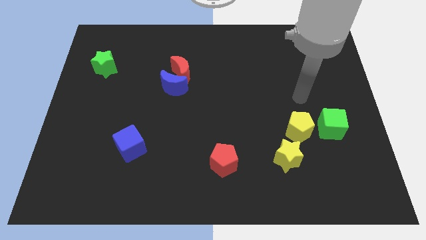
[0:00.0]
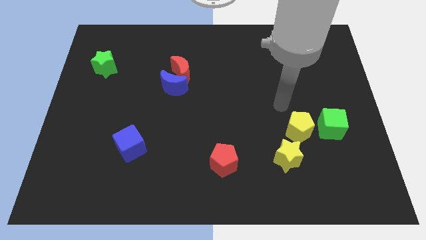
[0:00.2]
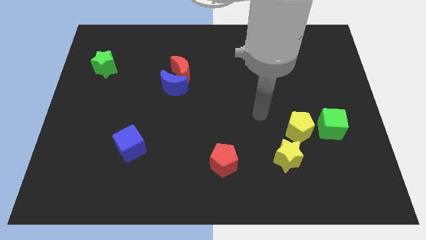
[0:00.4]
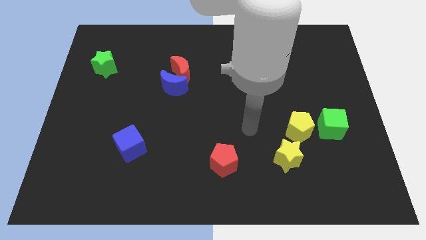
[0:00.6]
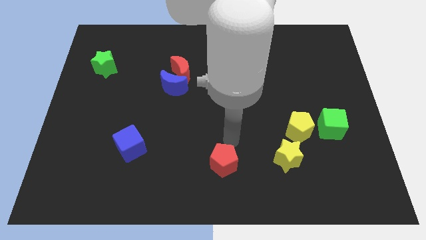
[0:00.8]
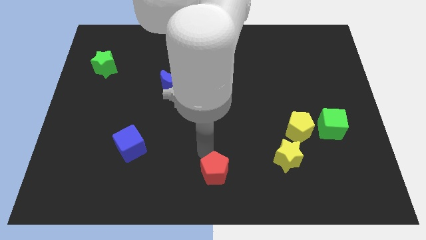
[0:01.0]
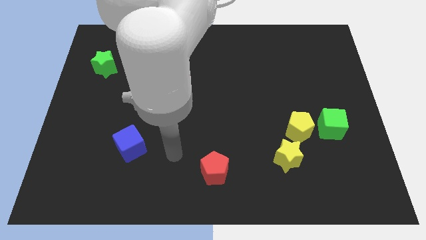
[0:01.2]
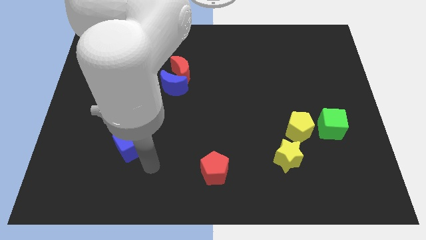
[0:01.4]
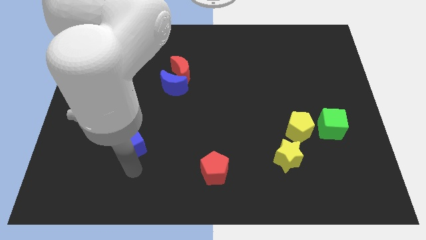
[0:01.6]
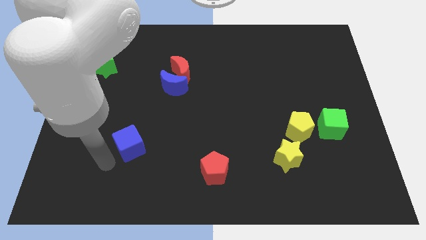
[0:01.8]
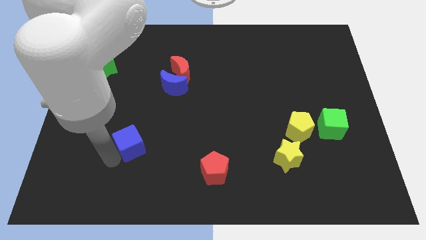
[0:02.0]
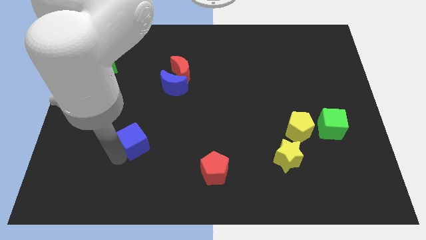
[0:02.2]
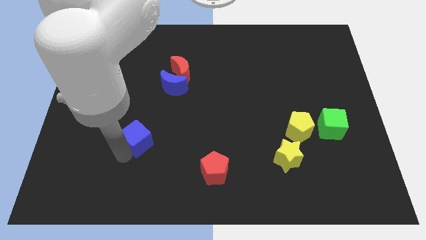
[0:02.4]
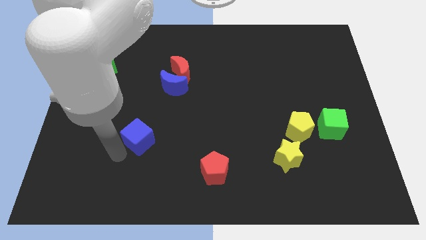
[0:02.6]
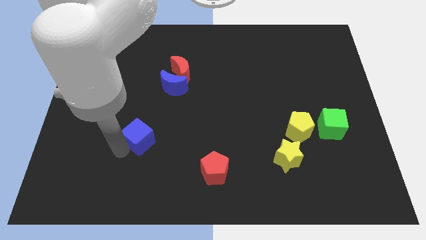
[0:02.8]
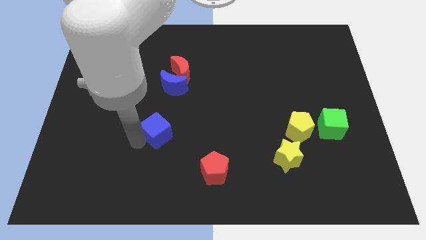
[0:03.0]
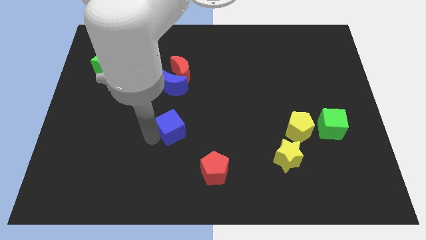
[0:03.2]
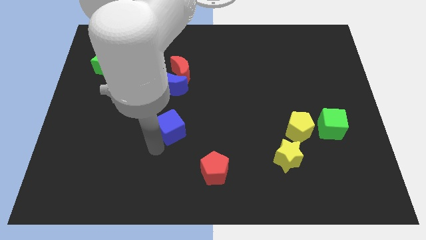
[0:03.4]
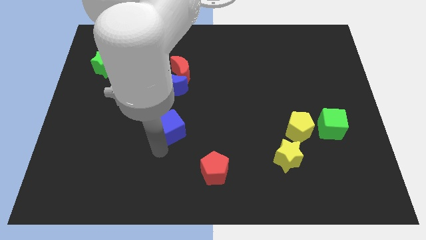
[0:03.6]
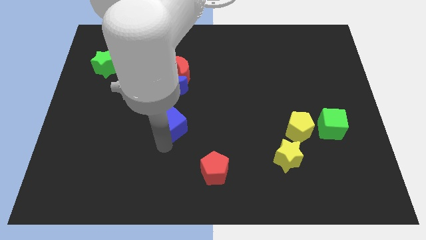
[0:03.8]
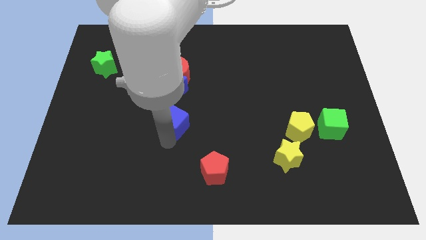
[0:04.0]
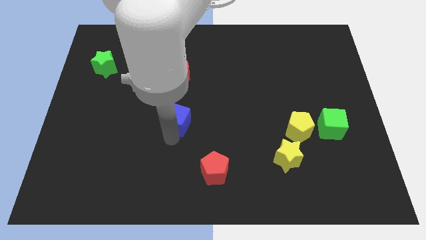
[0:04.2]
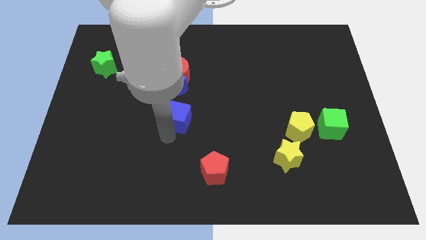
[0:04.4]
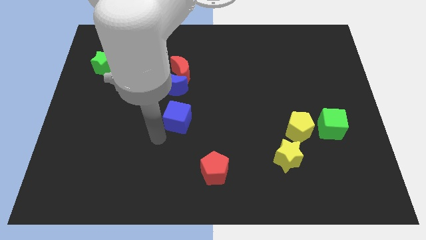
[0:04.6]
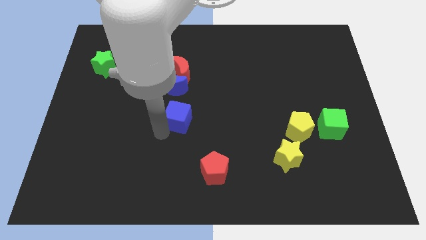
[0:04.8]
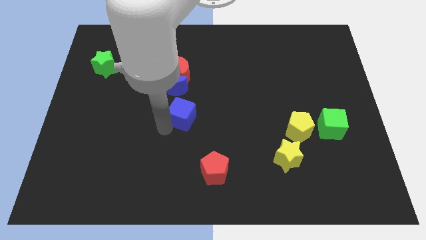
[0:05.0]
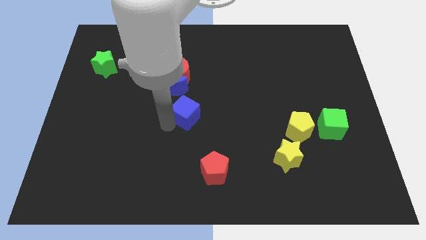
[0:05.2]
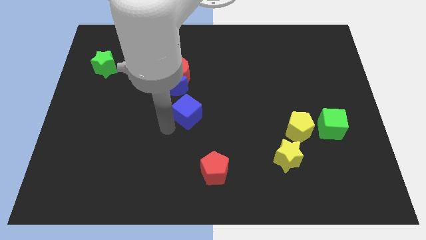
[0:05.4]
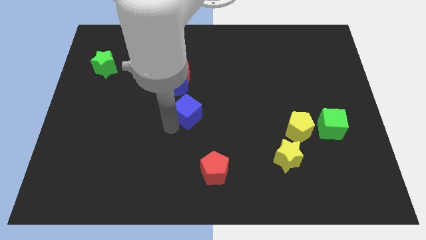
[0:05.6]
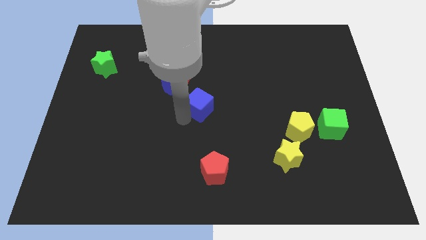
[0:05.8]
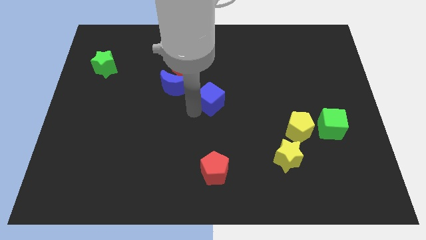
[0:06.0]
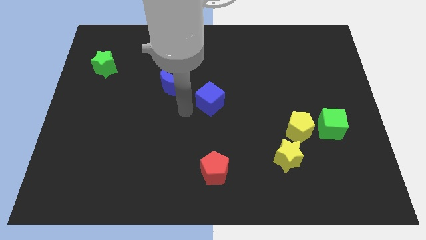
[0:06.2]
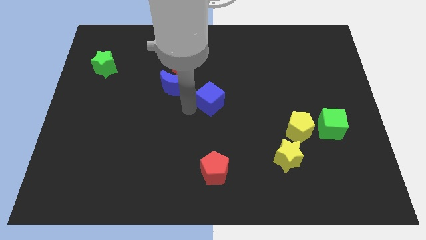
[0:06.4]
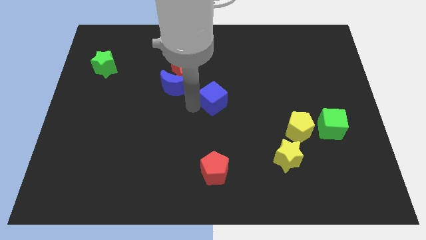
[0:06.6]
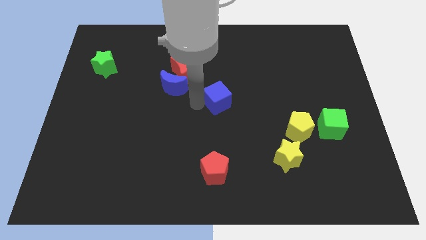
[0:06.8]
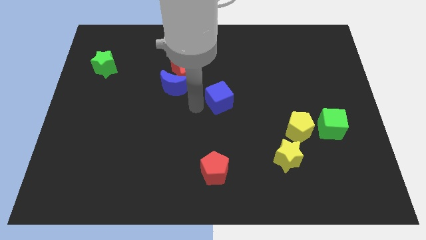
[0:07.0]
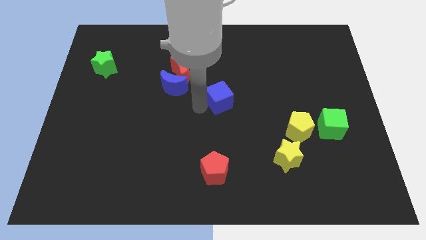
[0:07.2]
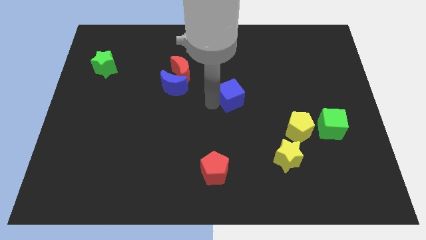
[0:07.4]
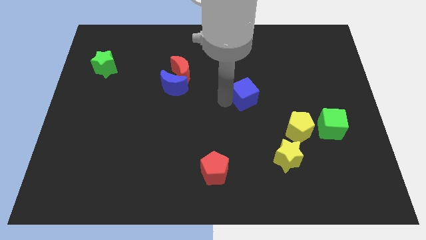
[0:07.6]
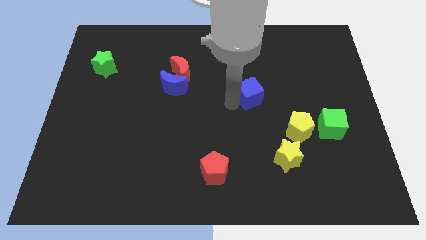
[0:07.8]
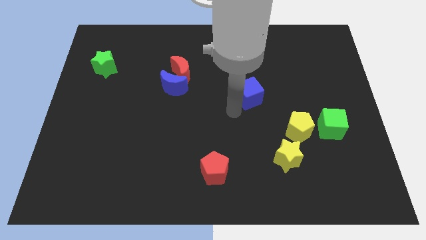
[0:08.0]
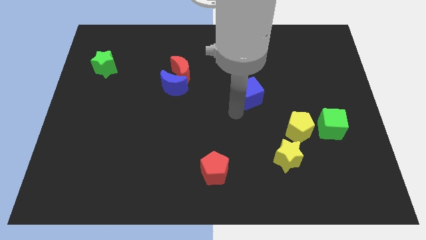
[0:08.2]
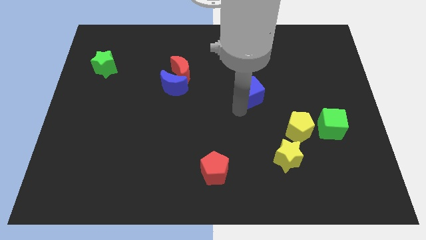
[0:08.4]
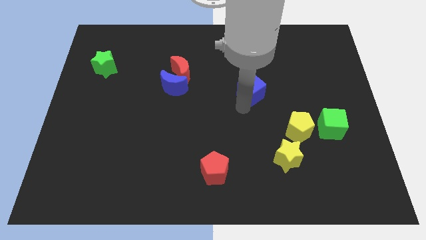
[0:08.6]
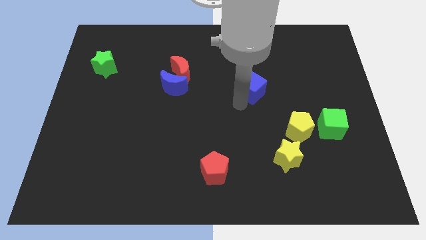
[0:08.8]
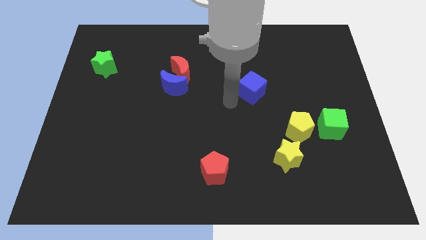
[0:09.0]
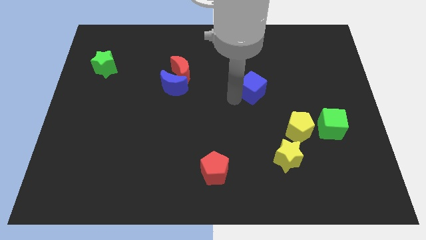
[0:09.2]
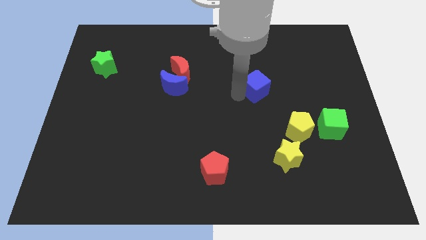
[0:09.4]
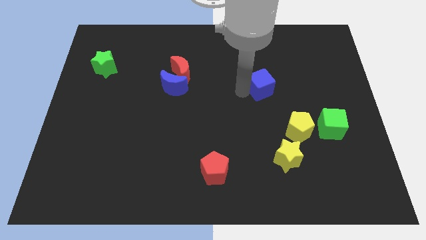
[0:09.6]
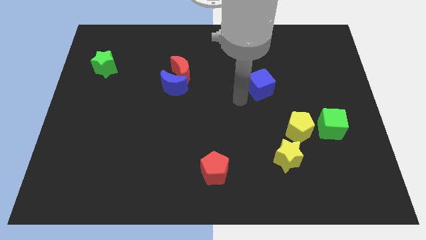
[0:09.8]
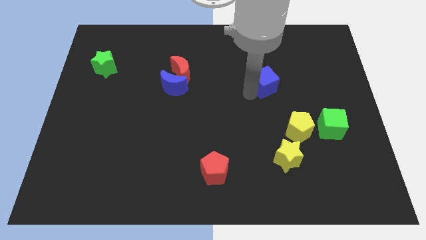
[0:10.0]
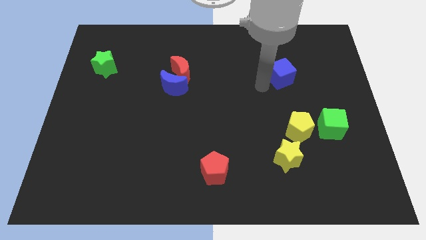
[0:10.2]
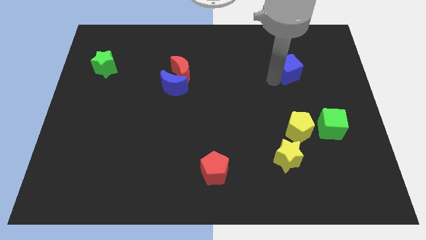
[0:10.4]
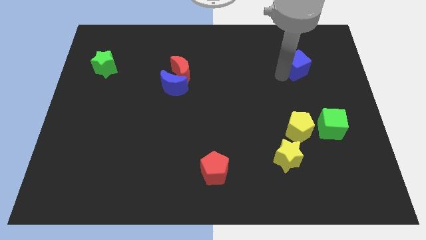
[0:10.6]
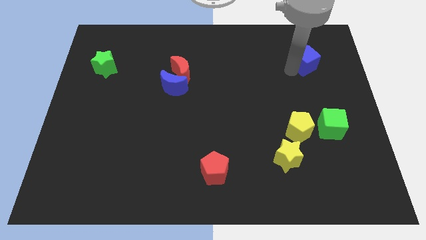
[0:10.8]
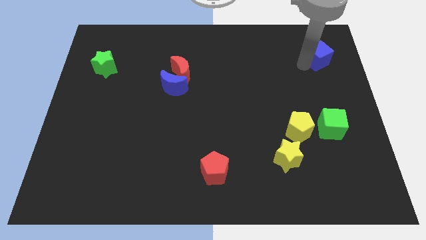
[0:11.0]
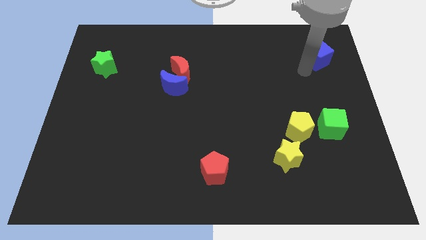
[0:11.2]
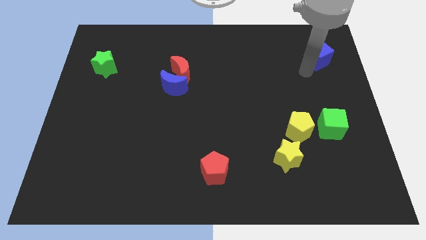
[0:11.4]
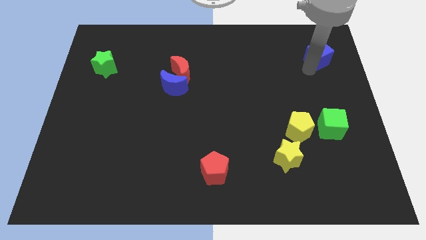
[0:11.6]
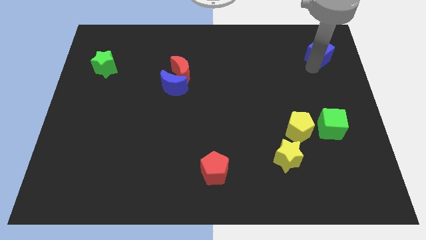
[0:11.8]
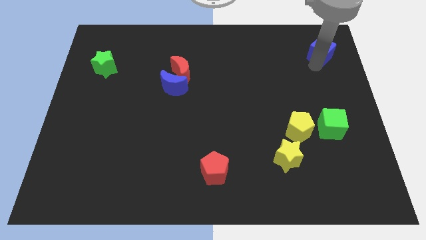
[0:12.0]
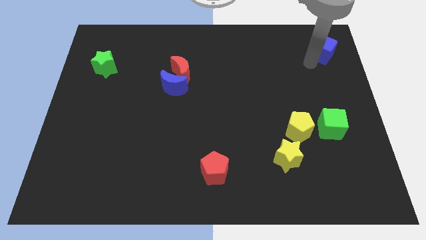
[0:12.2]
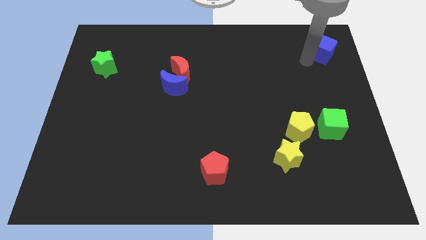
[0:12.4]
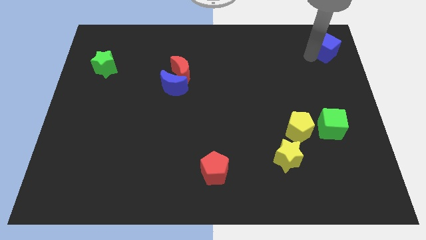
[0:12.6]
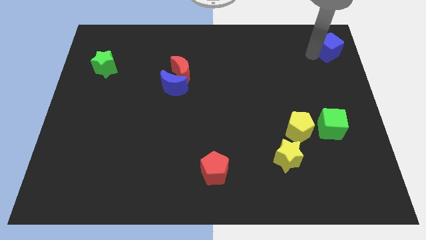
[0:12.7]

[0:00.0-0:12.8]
put the blue cube to the top right corner
